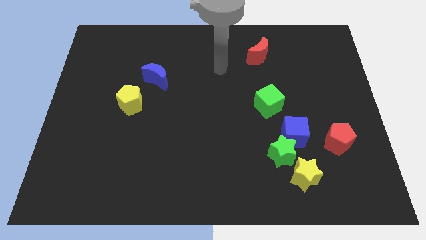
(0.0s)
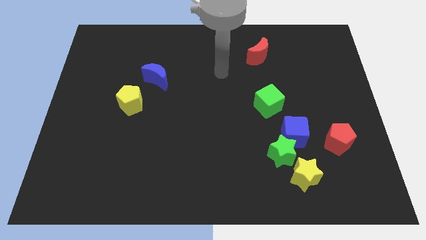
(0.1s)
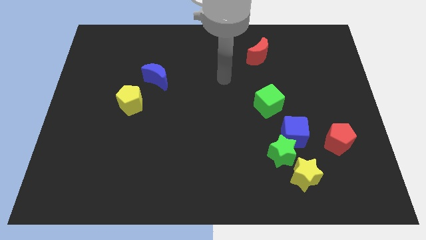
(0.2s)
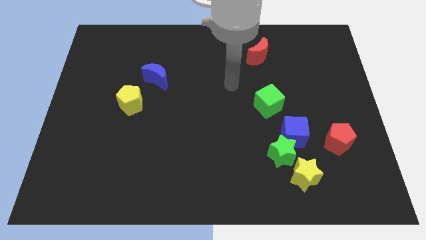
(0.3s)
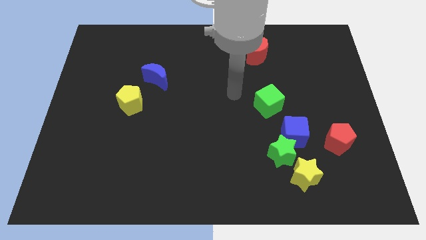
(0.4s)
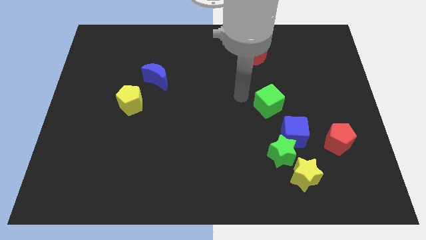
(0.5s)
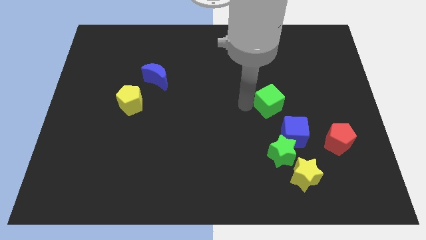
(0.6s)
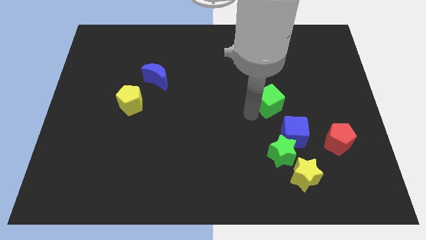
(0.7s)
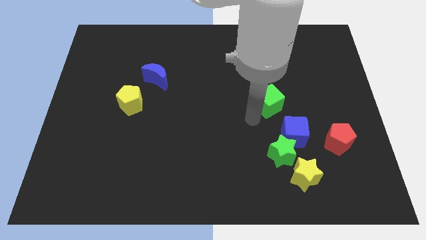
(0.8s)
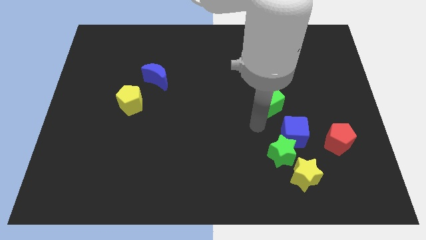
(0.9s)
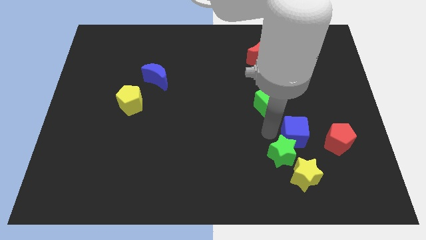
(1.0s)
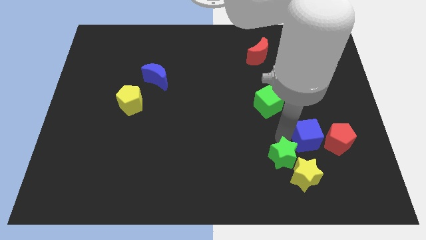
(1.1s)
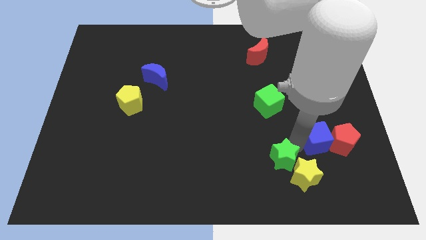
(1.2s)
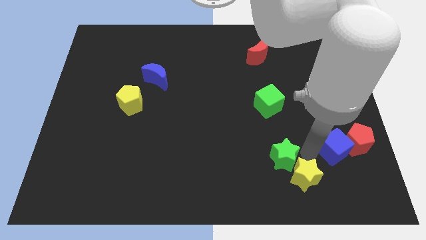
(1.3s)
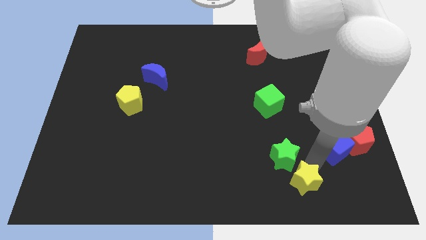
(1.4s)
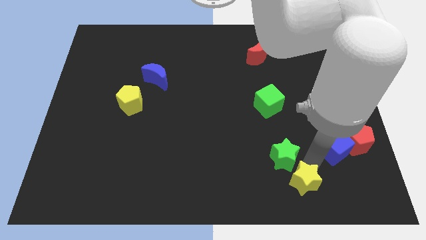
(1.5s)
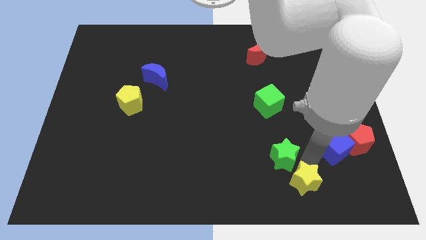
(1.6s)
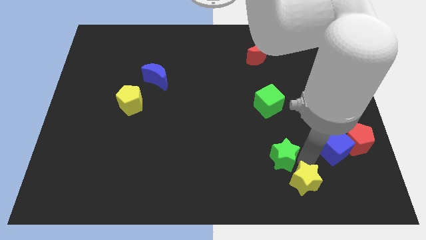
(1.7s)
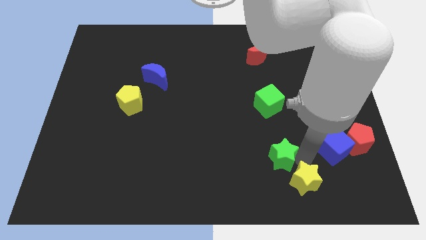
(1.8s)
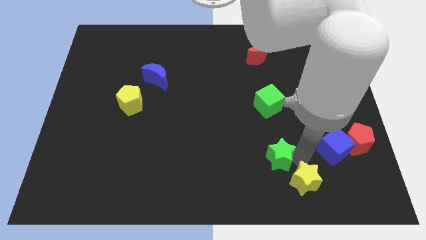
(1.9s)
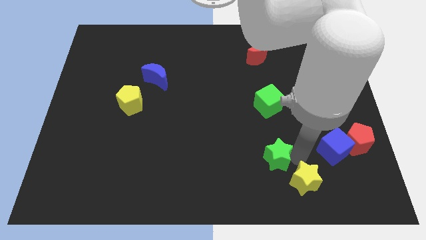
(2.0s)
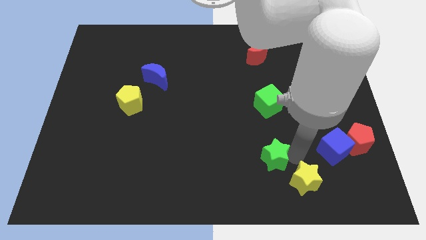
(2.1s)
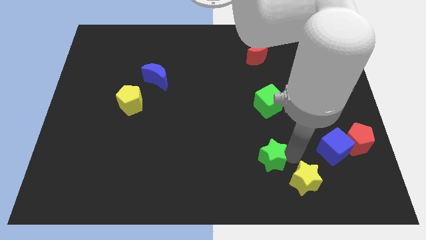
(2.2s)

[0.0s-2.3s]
move the green star away from the blue cube and yellow star

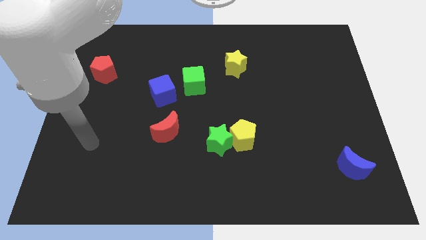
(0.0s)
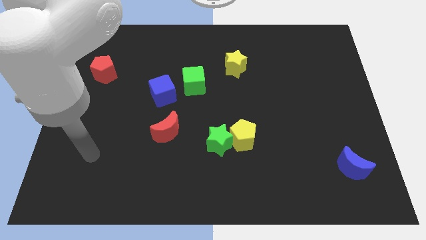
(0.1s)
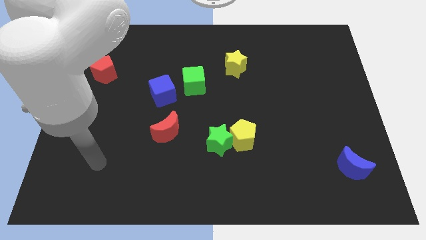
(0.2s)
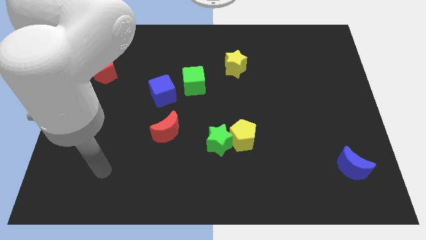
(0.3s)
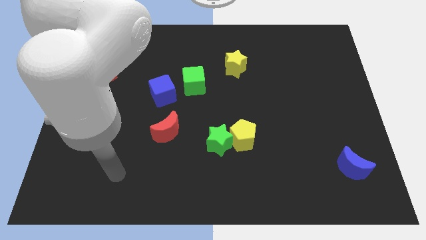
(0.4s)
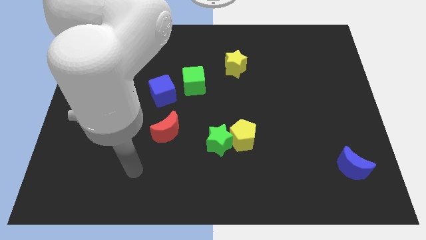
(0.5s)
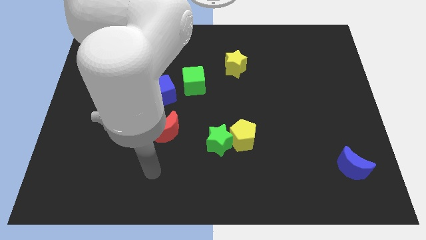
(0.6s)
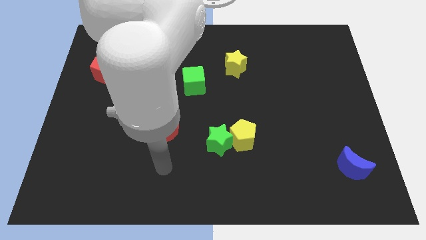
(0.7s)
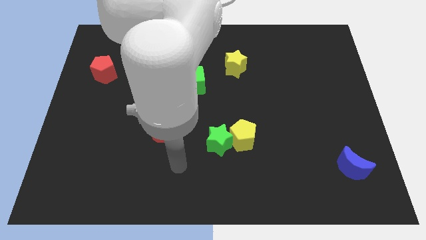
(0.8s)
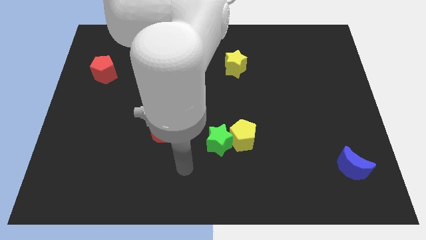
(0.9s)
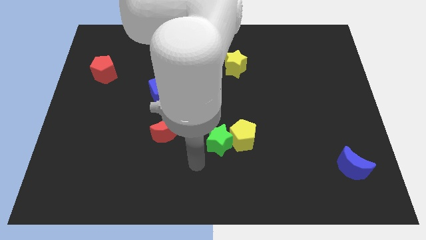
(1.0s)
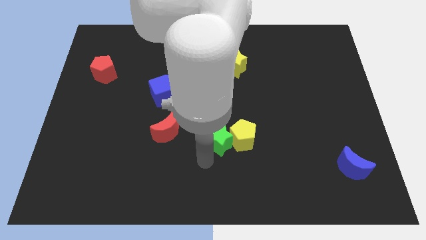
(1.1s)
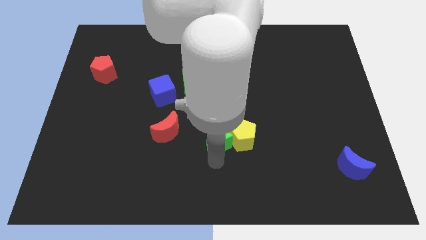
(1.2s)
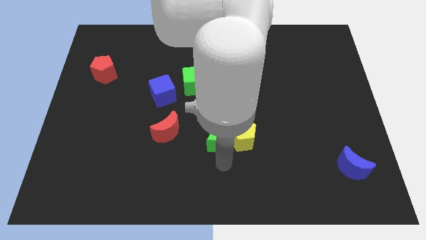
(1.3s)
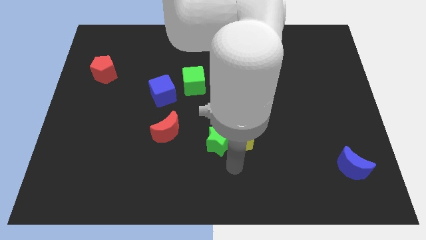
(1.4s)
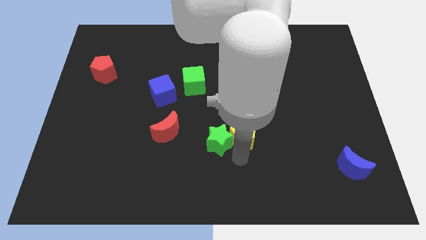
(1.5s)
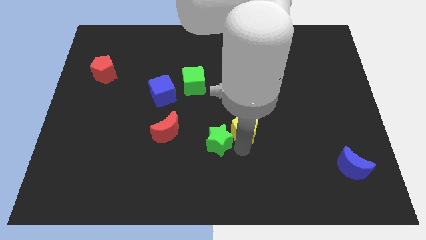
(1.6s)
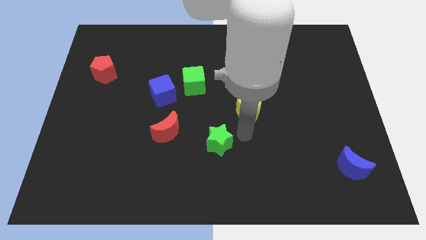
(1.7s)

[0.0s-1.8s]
move the green star away from the yellow pentagon

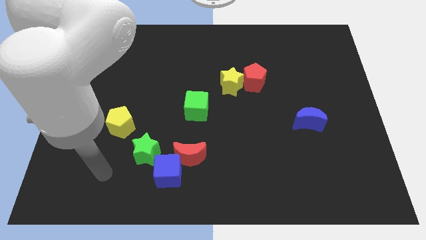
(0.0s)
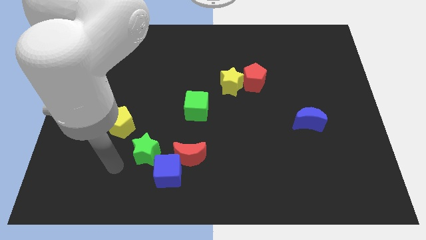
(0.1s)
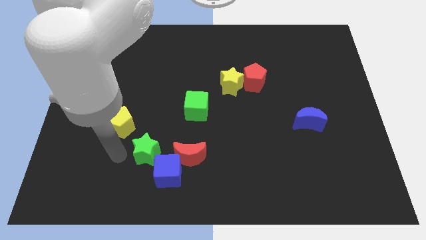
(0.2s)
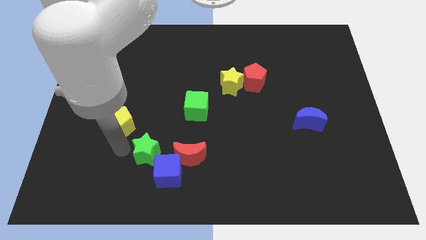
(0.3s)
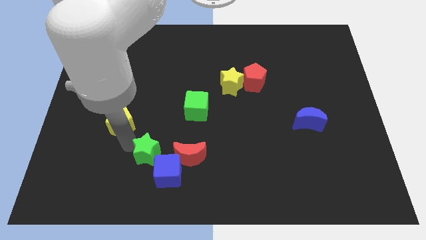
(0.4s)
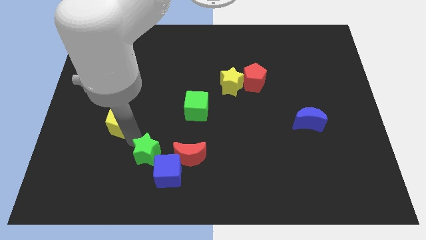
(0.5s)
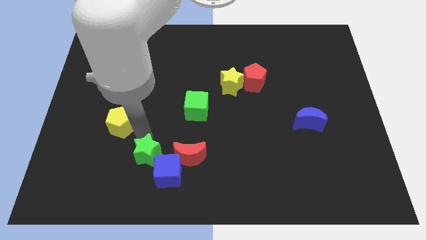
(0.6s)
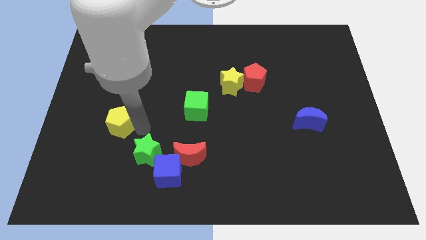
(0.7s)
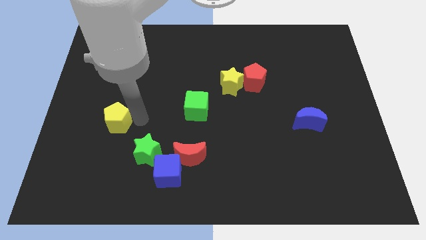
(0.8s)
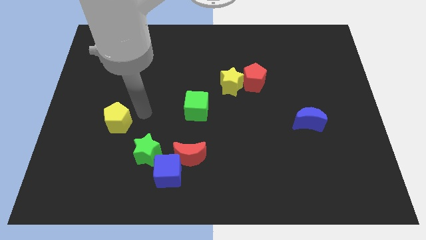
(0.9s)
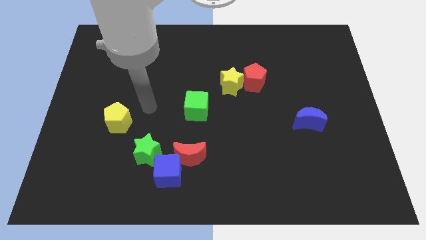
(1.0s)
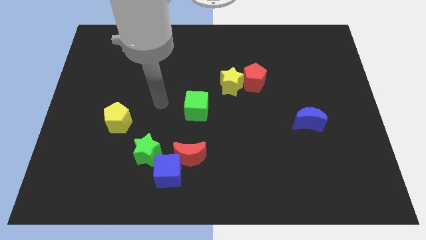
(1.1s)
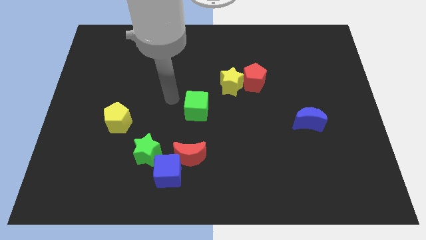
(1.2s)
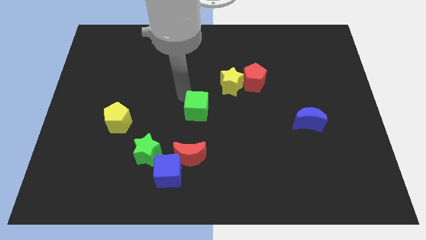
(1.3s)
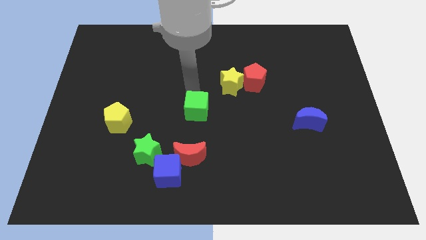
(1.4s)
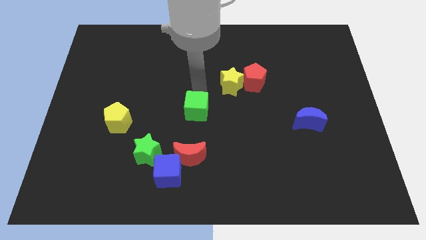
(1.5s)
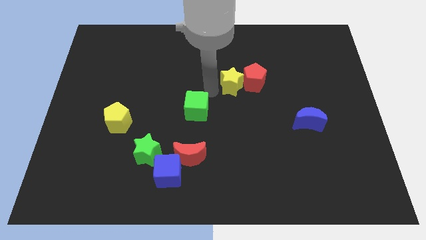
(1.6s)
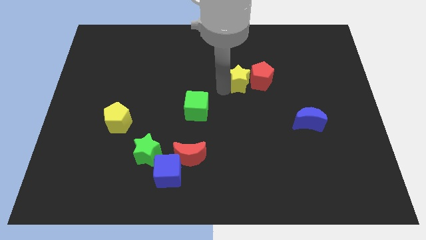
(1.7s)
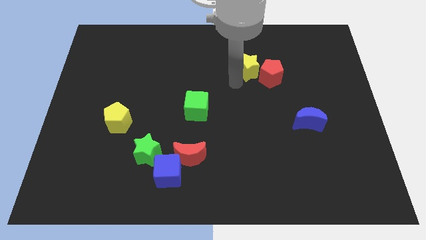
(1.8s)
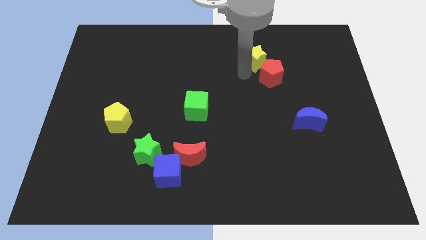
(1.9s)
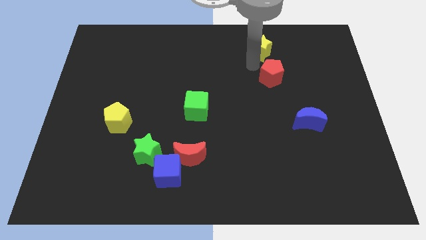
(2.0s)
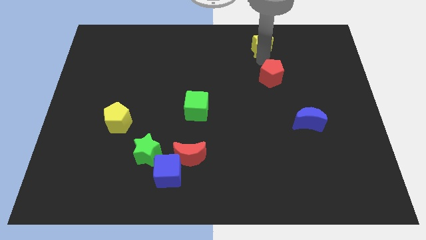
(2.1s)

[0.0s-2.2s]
separate the red pentagon from the yellow star

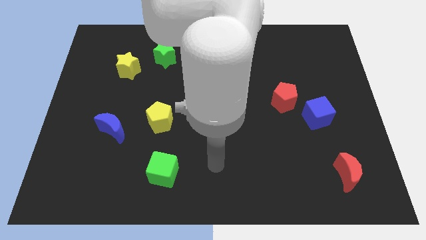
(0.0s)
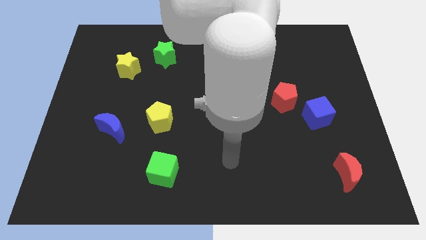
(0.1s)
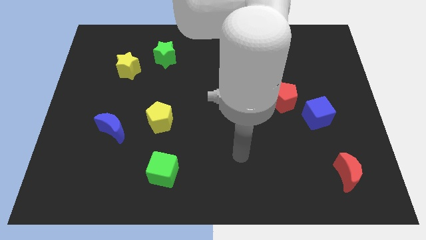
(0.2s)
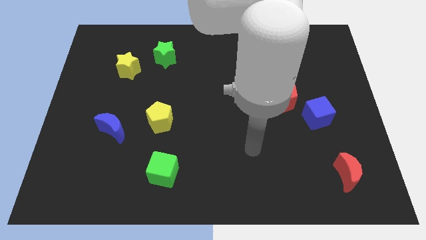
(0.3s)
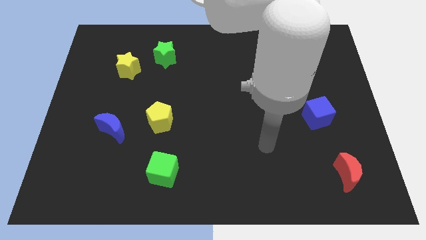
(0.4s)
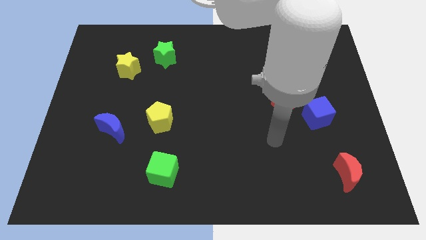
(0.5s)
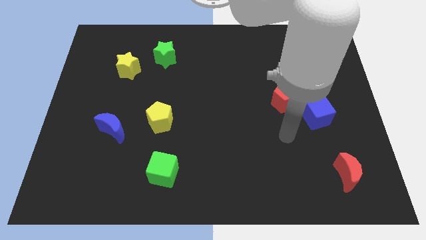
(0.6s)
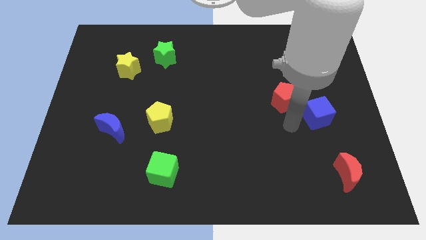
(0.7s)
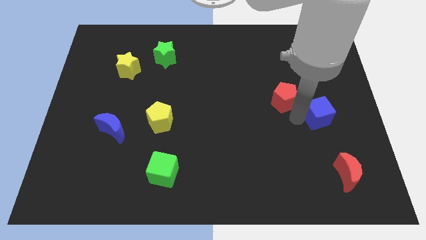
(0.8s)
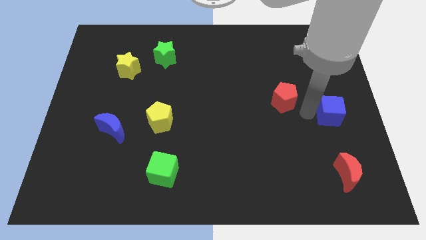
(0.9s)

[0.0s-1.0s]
pull the red pentagon apart from the blue cube

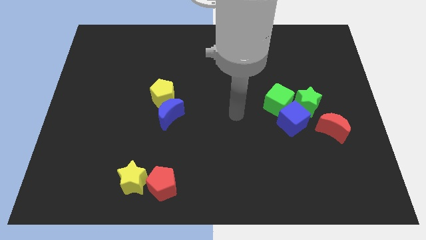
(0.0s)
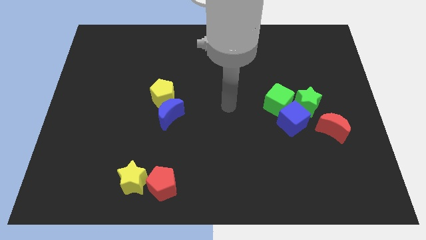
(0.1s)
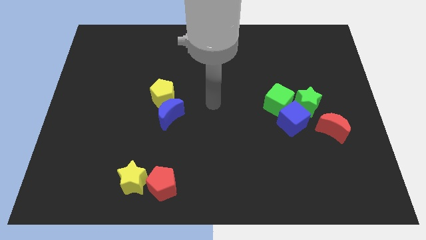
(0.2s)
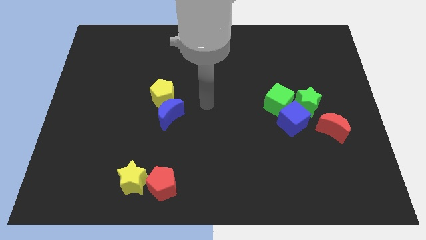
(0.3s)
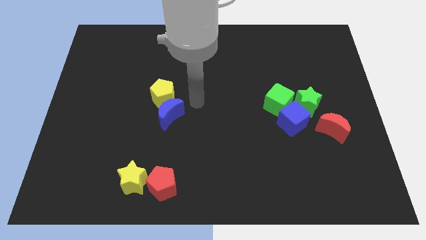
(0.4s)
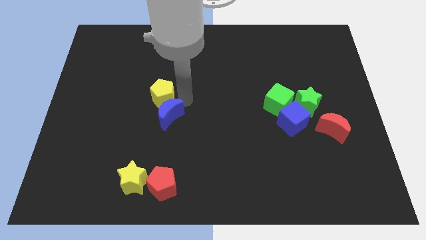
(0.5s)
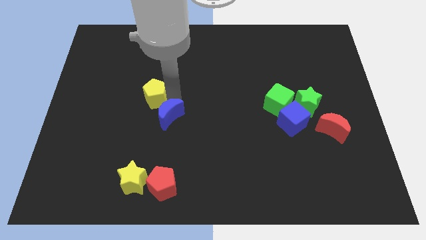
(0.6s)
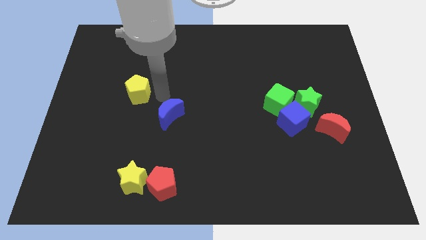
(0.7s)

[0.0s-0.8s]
separate the blue moon from the yellow pentagon

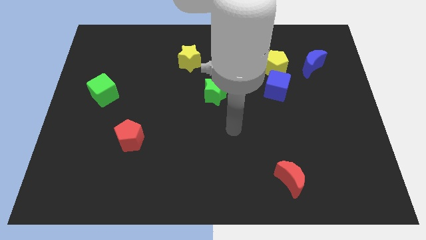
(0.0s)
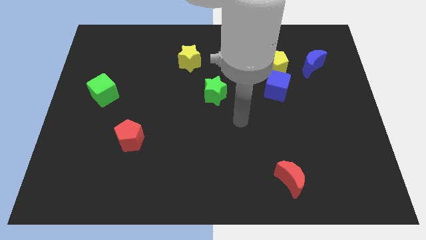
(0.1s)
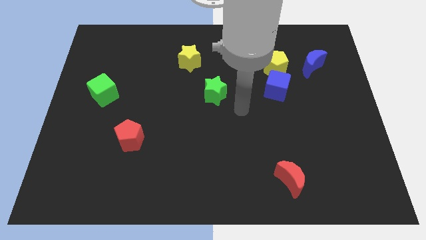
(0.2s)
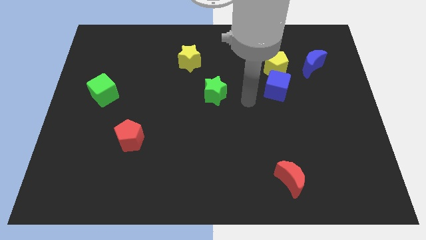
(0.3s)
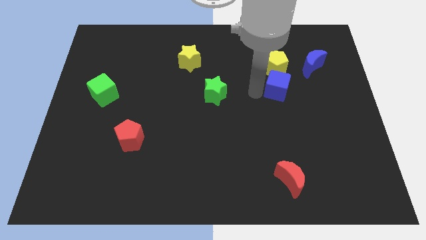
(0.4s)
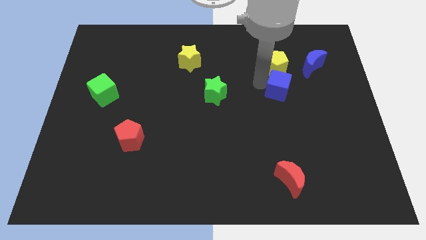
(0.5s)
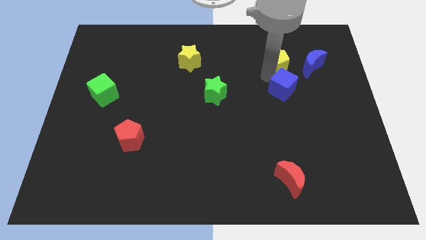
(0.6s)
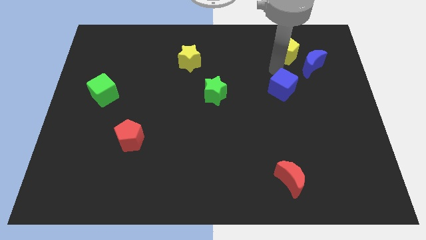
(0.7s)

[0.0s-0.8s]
separate the blue cube from the yellow pentagon

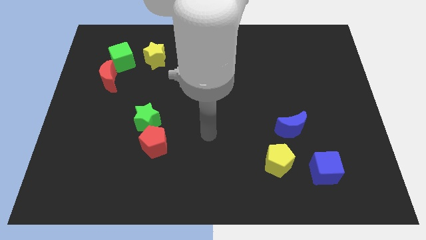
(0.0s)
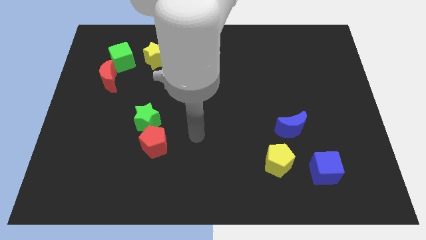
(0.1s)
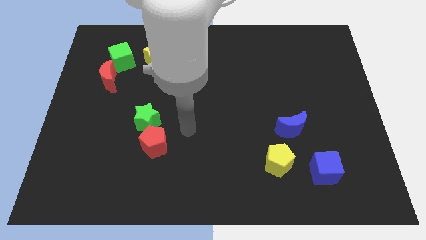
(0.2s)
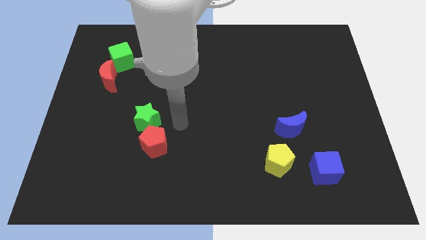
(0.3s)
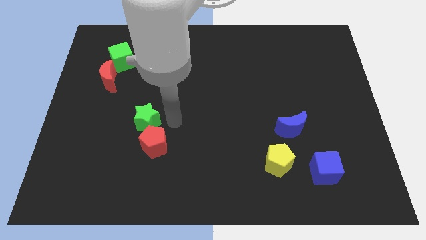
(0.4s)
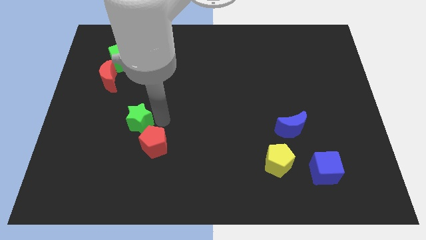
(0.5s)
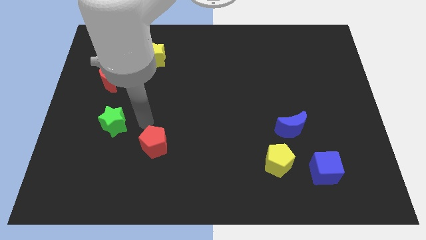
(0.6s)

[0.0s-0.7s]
pull the red pentagon apart from the green star
